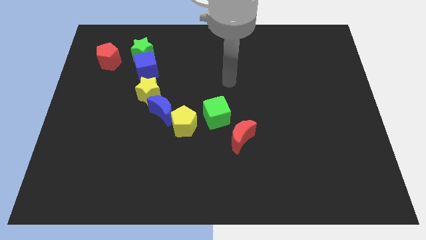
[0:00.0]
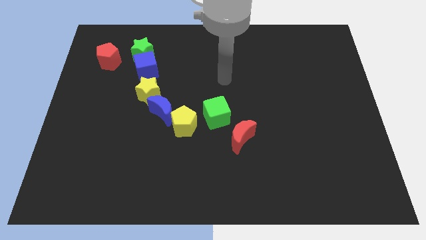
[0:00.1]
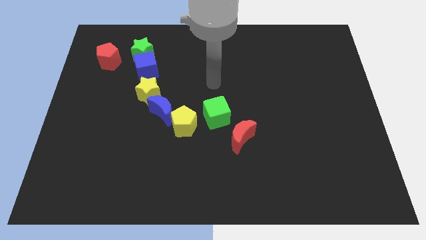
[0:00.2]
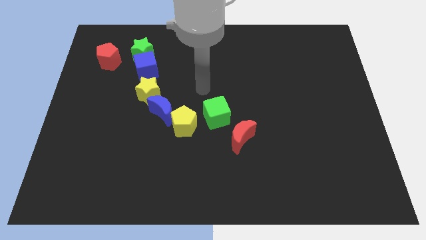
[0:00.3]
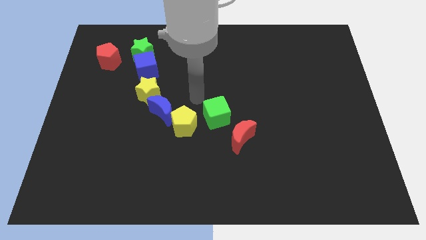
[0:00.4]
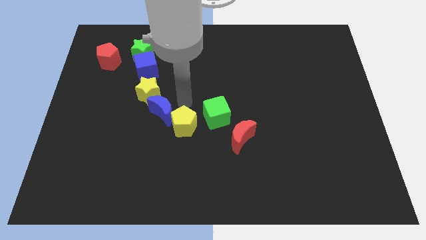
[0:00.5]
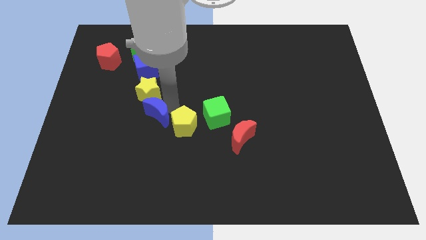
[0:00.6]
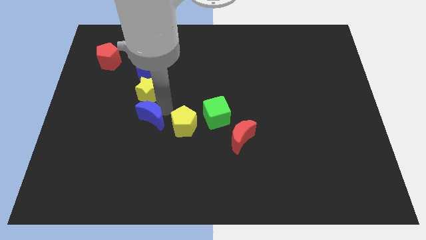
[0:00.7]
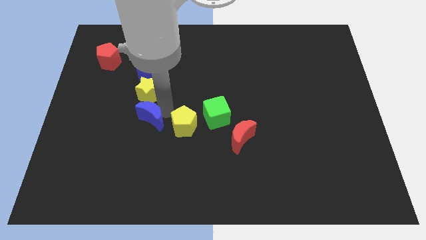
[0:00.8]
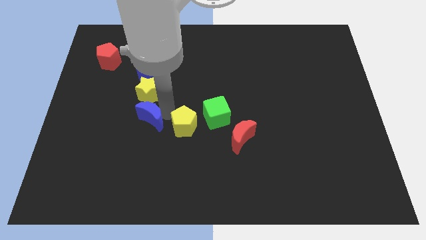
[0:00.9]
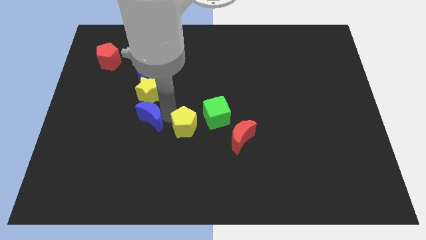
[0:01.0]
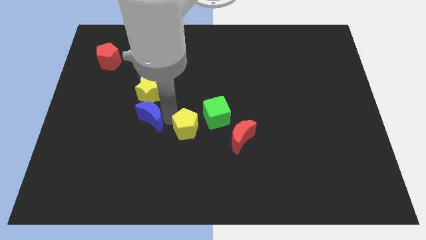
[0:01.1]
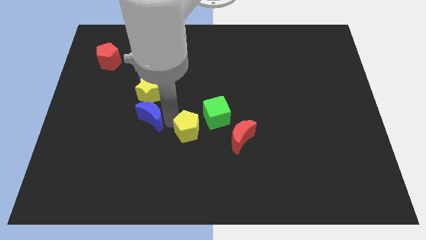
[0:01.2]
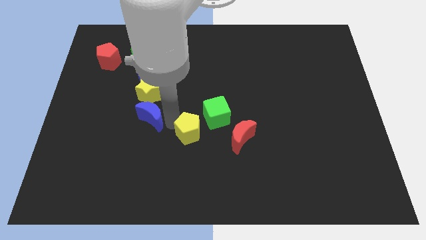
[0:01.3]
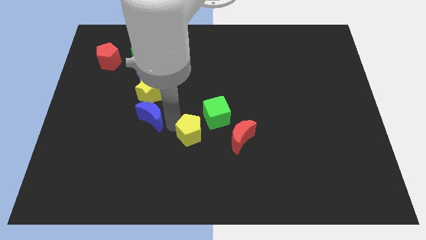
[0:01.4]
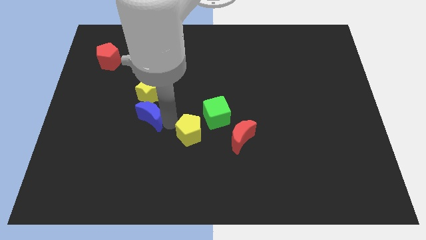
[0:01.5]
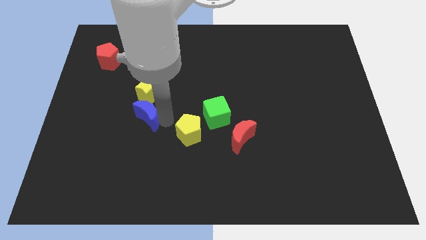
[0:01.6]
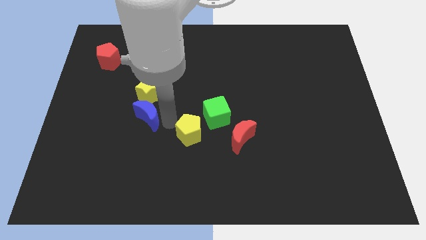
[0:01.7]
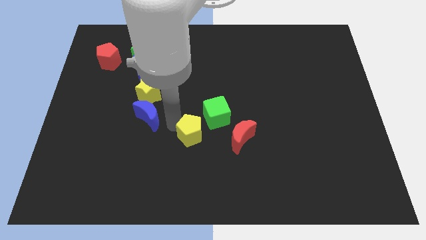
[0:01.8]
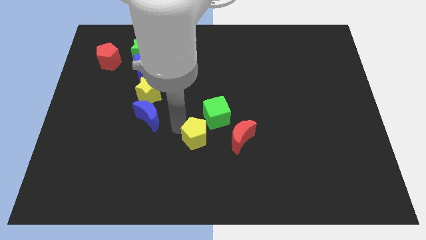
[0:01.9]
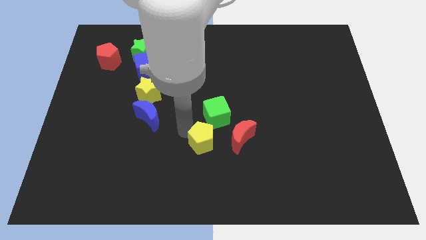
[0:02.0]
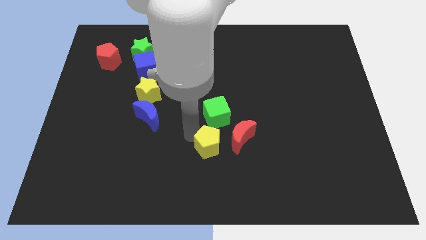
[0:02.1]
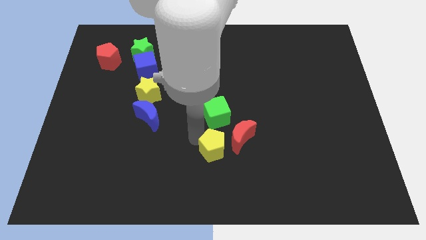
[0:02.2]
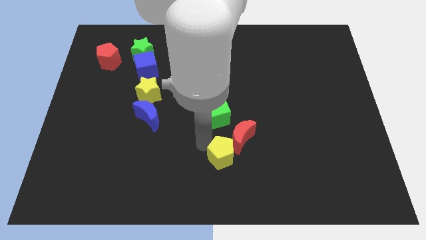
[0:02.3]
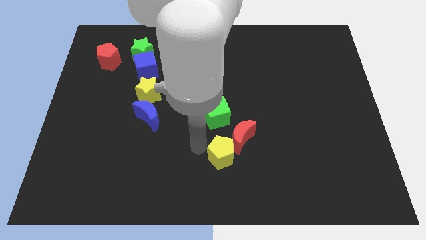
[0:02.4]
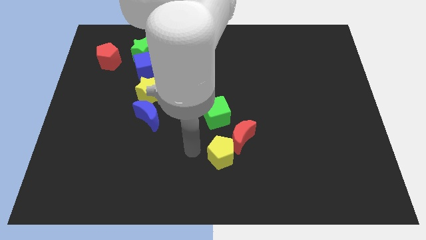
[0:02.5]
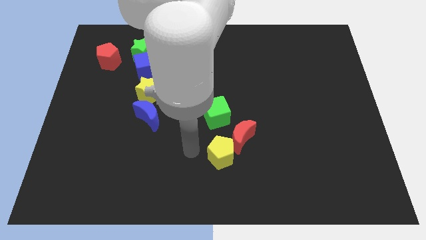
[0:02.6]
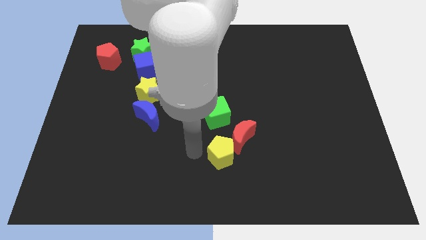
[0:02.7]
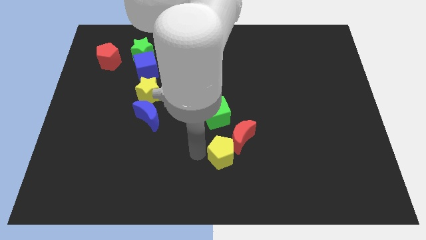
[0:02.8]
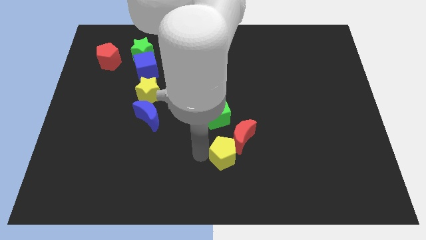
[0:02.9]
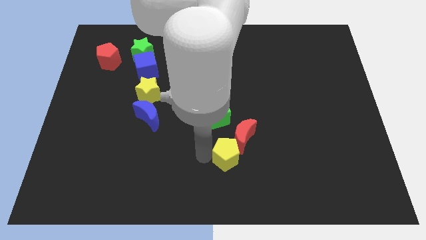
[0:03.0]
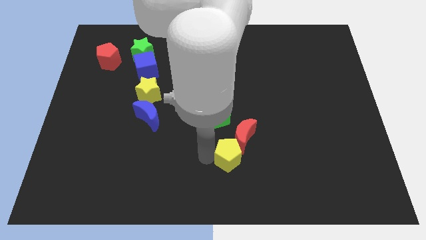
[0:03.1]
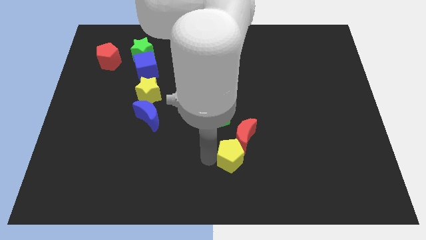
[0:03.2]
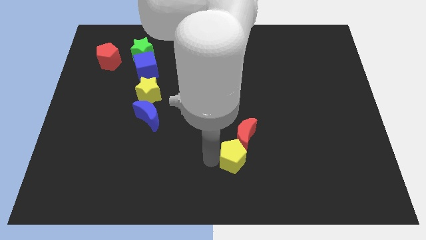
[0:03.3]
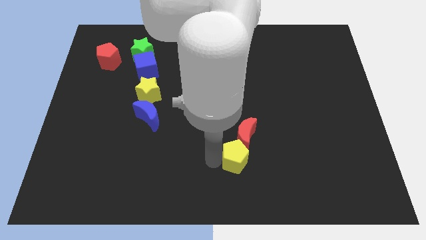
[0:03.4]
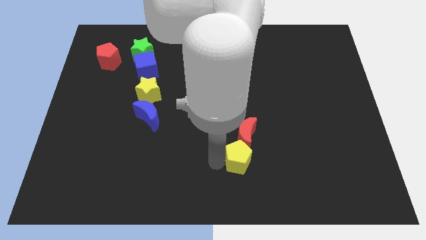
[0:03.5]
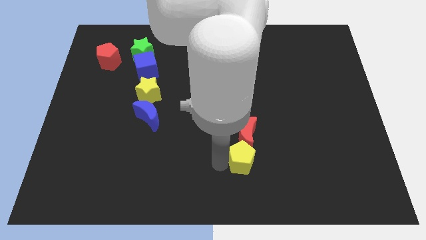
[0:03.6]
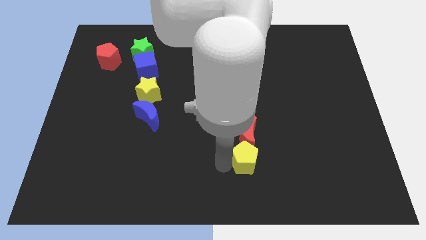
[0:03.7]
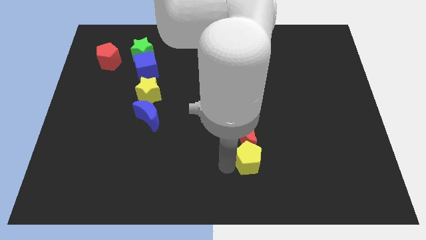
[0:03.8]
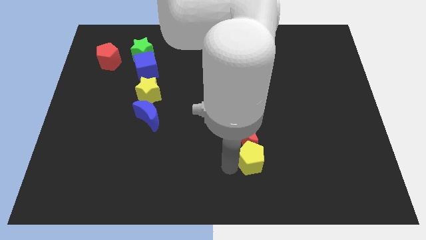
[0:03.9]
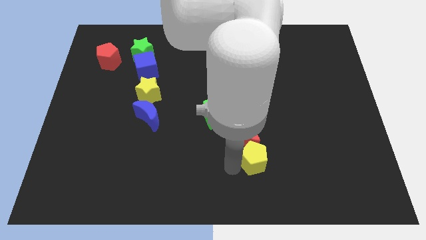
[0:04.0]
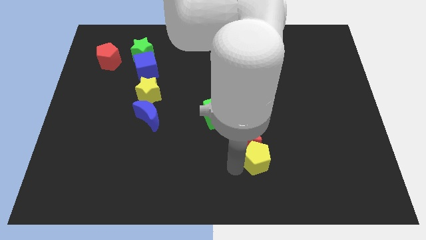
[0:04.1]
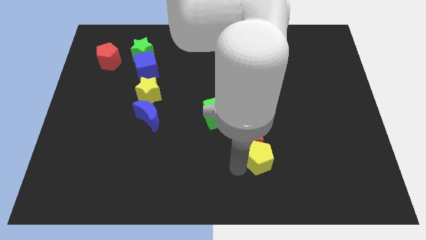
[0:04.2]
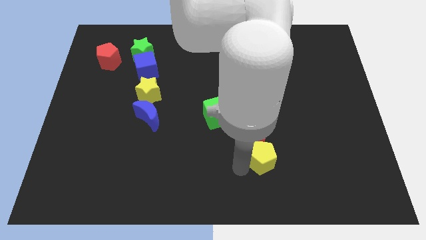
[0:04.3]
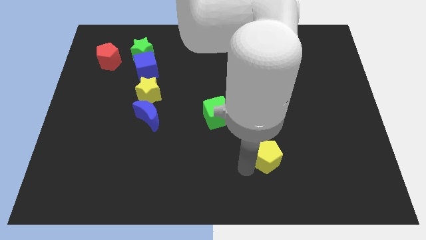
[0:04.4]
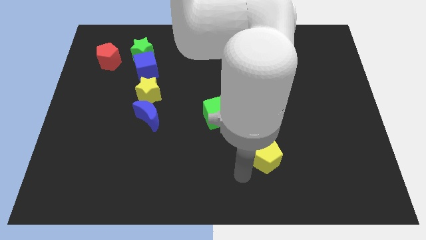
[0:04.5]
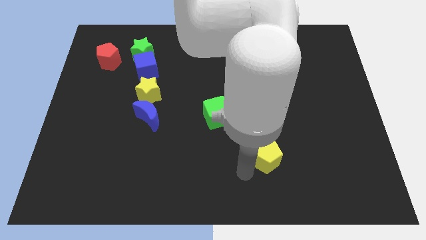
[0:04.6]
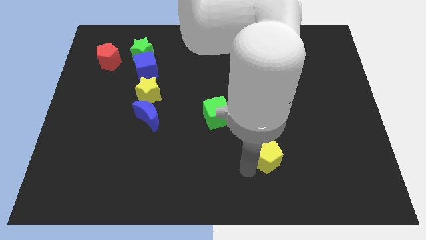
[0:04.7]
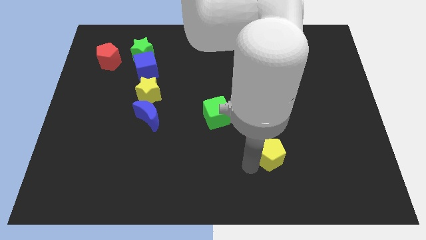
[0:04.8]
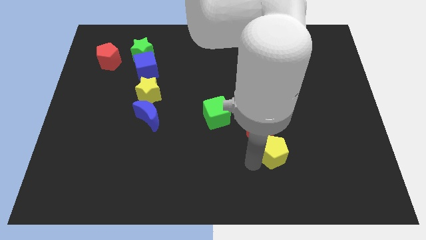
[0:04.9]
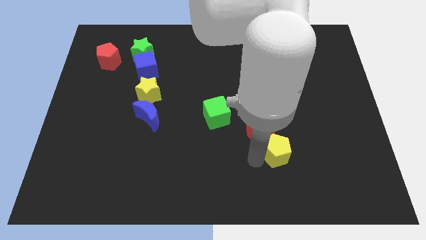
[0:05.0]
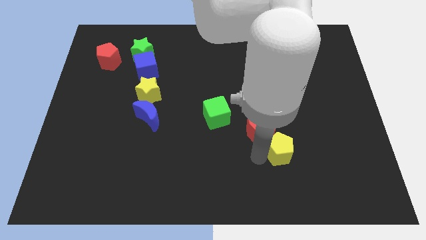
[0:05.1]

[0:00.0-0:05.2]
push the yellow pentagon right of the red moon

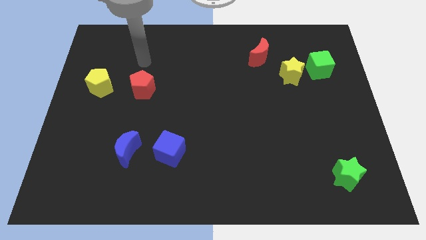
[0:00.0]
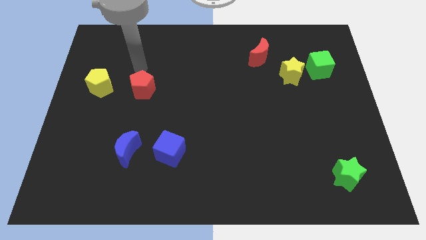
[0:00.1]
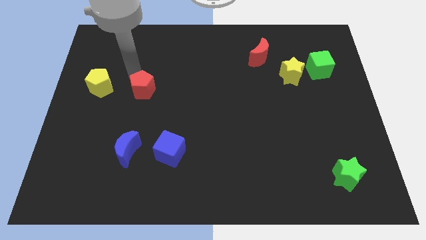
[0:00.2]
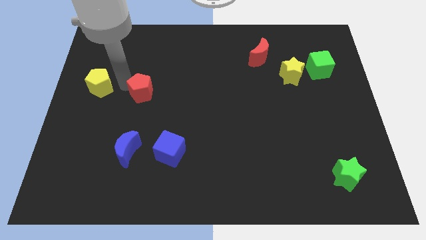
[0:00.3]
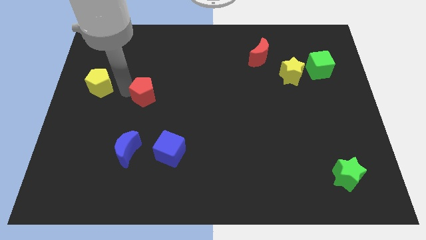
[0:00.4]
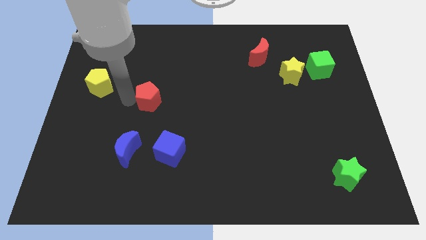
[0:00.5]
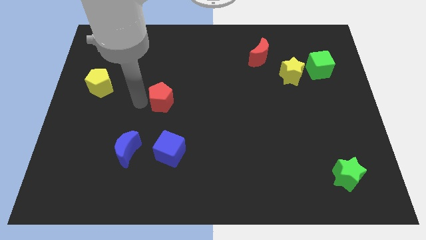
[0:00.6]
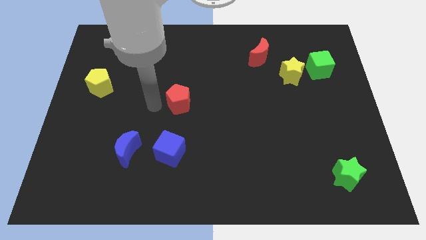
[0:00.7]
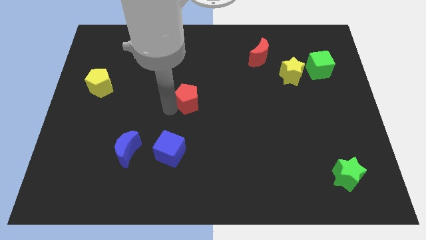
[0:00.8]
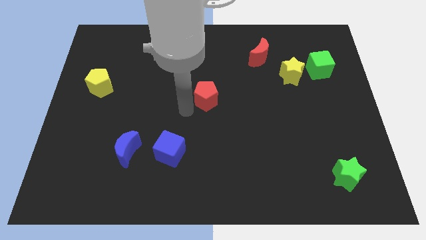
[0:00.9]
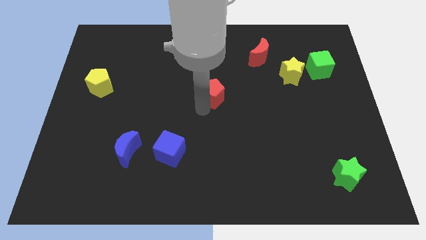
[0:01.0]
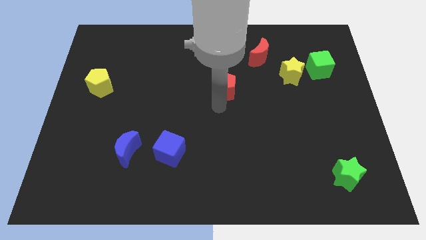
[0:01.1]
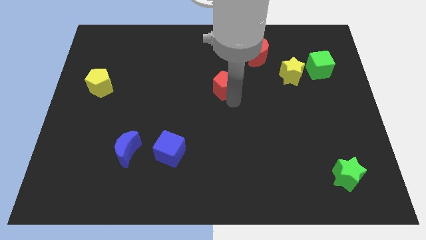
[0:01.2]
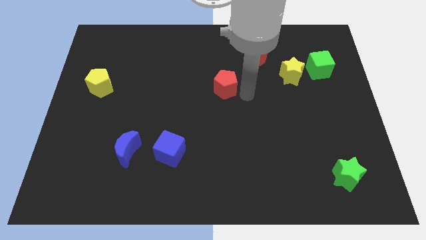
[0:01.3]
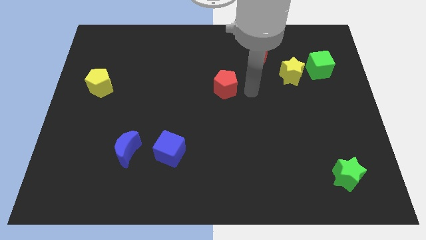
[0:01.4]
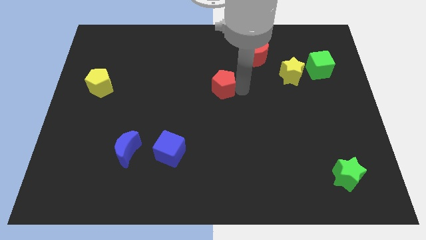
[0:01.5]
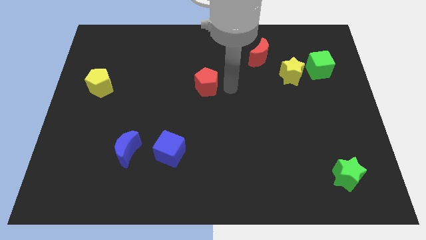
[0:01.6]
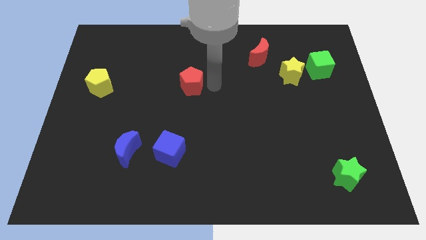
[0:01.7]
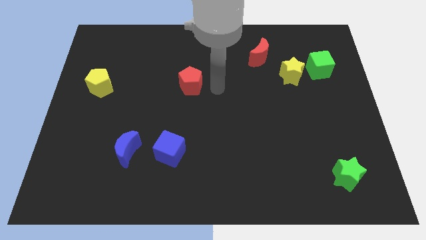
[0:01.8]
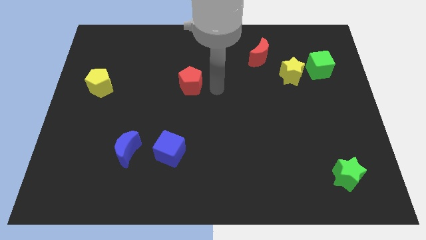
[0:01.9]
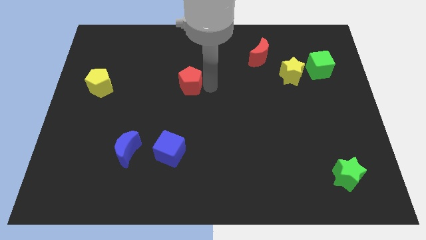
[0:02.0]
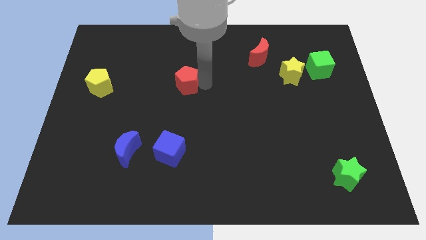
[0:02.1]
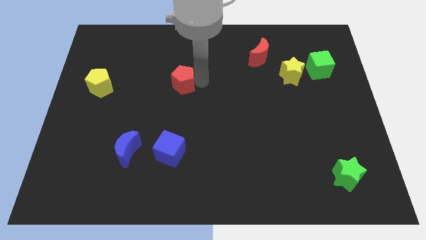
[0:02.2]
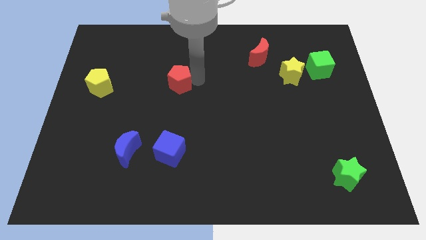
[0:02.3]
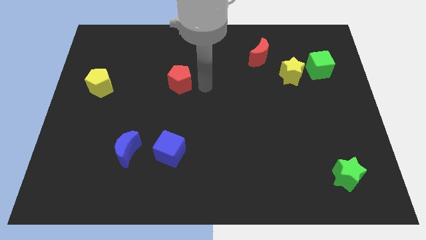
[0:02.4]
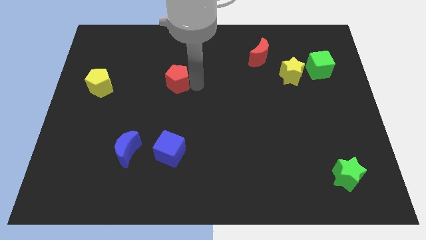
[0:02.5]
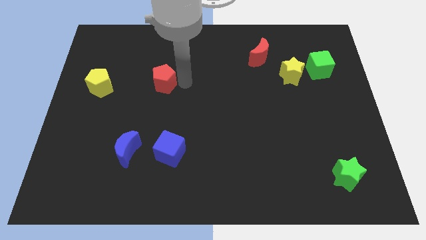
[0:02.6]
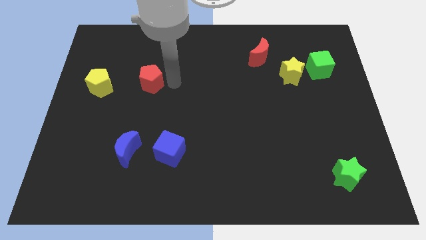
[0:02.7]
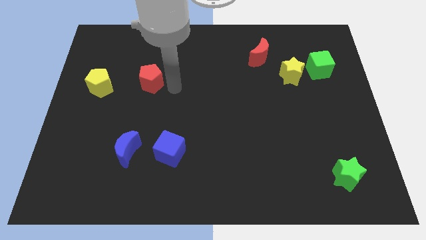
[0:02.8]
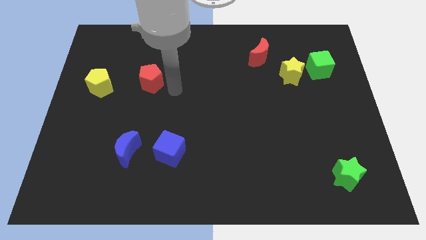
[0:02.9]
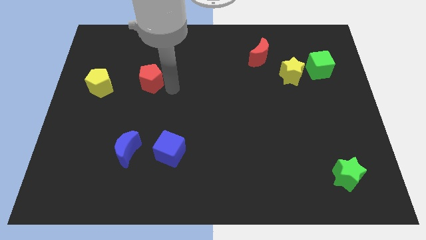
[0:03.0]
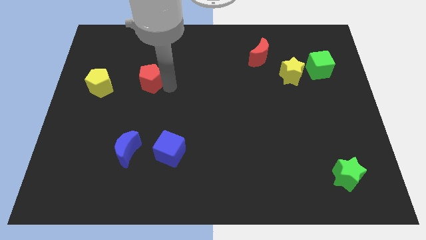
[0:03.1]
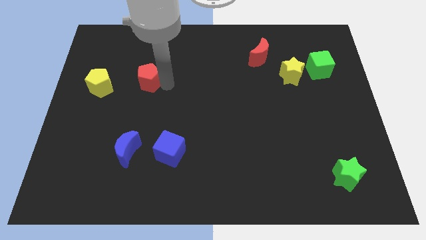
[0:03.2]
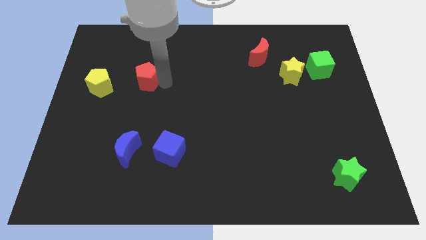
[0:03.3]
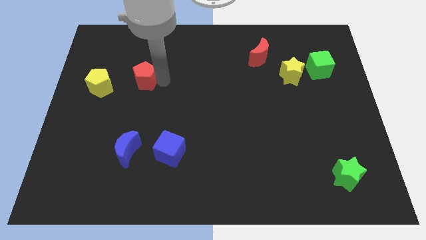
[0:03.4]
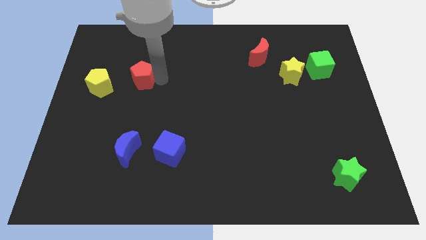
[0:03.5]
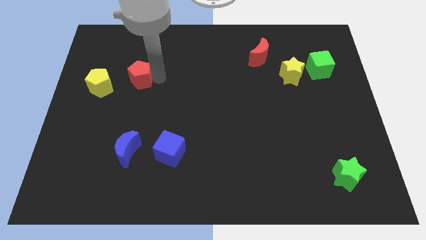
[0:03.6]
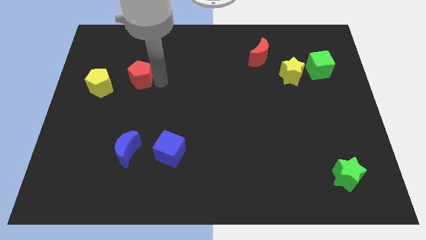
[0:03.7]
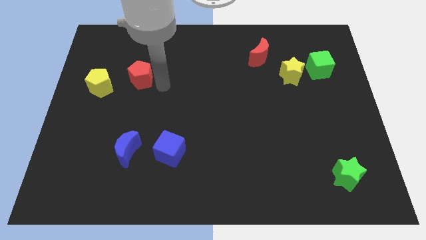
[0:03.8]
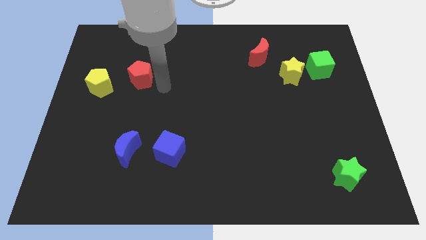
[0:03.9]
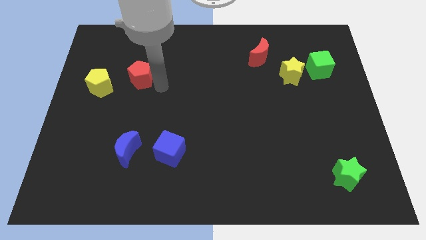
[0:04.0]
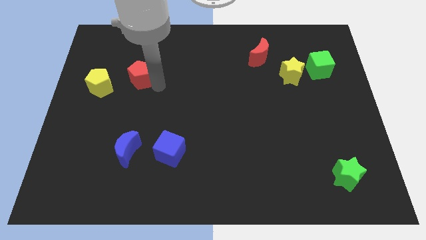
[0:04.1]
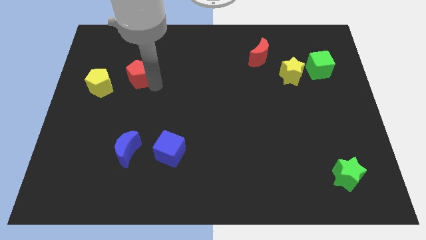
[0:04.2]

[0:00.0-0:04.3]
move the red pentagon diagonally up and to the right of the yellow pentagon
